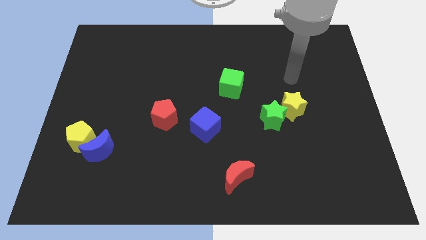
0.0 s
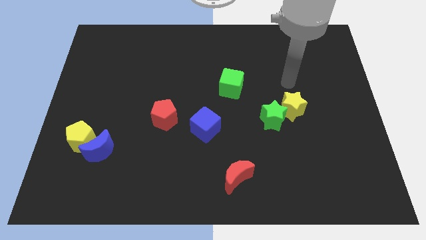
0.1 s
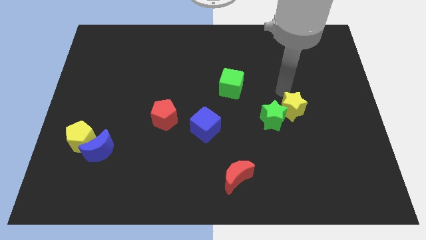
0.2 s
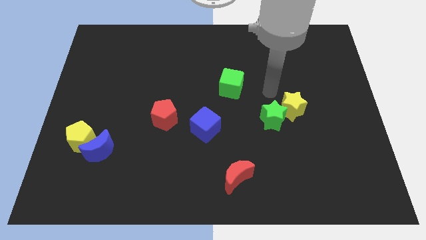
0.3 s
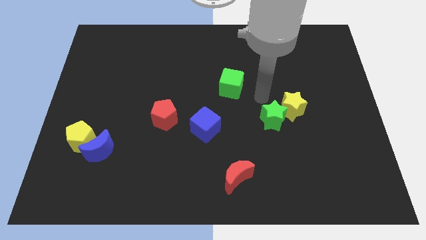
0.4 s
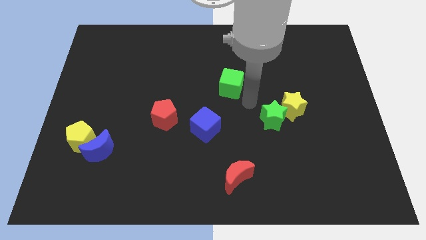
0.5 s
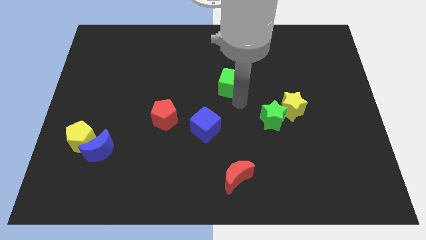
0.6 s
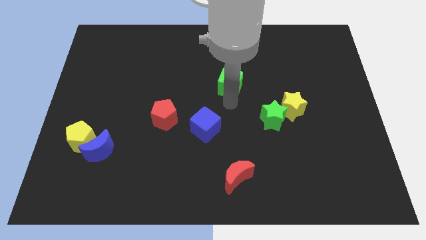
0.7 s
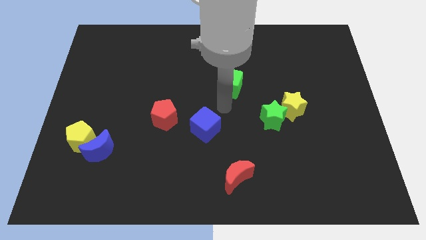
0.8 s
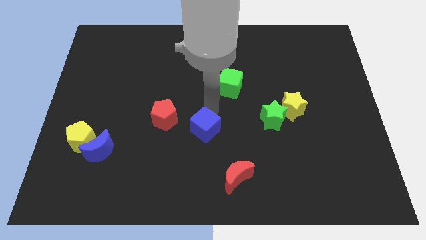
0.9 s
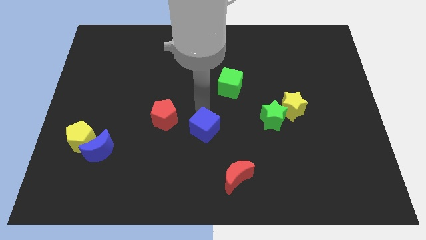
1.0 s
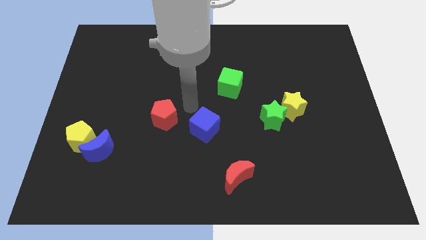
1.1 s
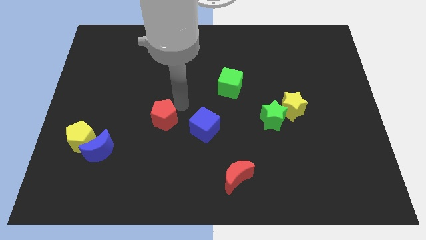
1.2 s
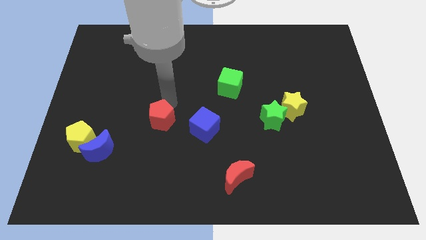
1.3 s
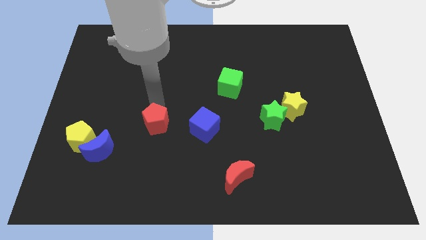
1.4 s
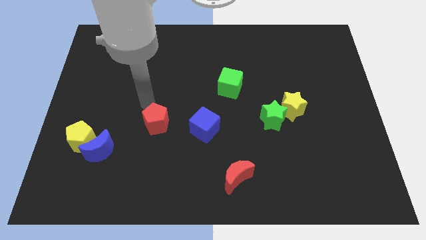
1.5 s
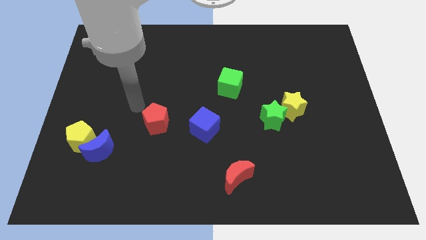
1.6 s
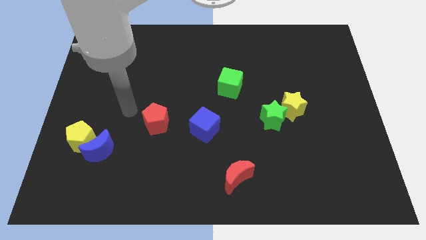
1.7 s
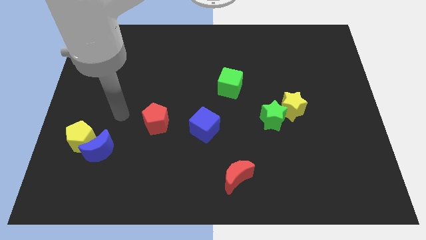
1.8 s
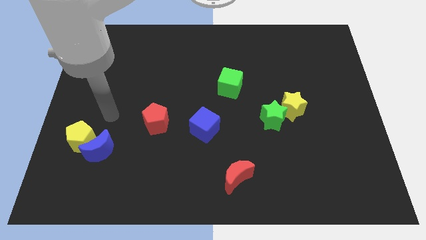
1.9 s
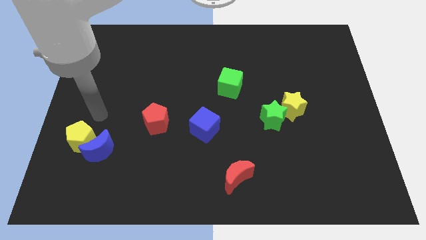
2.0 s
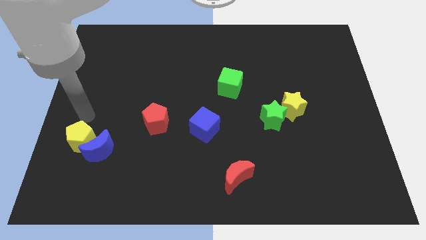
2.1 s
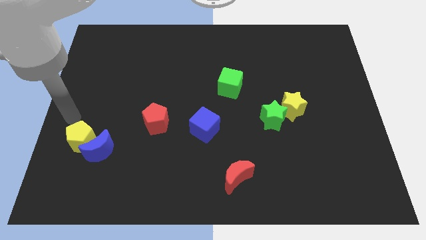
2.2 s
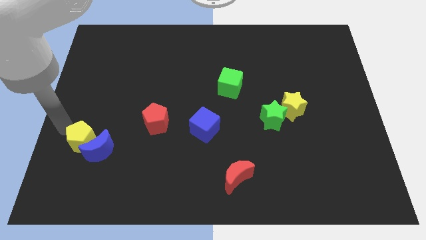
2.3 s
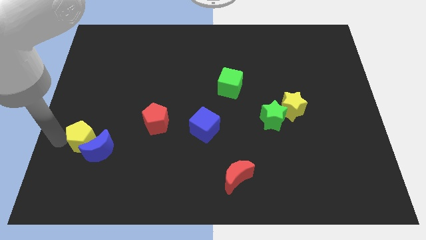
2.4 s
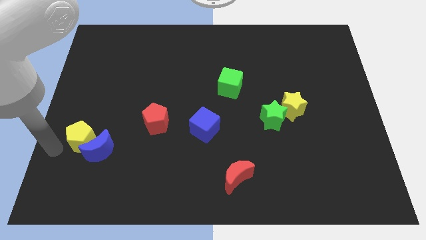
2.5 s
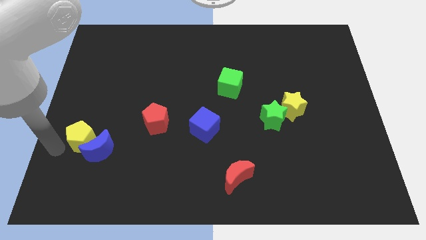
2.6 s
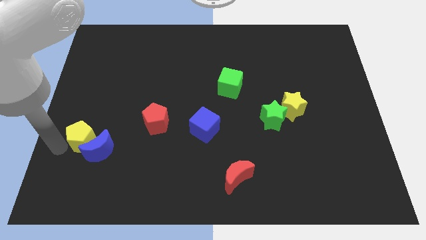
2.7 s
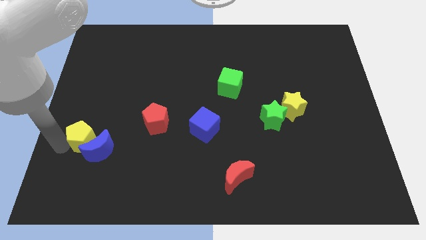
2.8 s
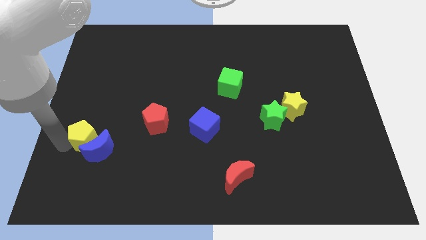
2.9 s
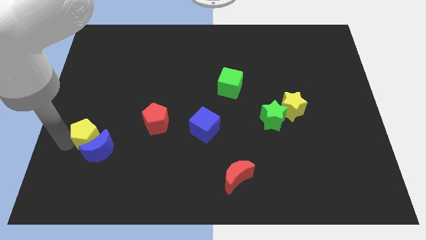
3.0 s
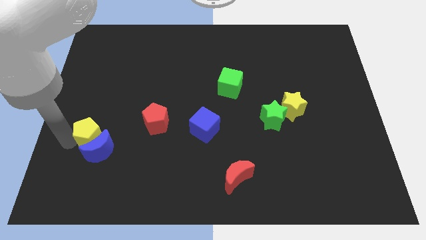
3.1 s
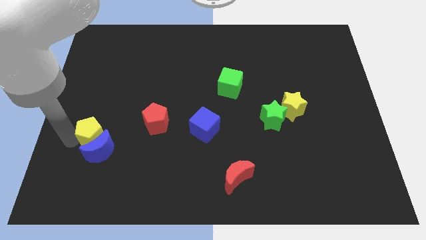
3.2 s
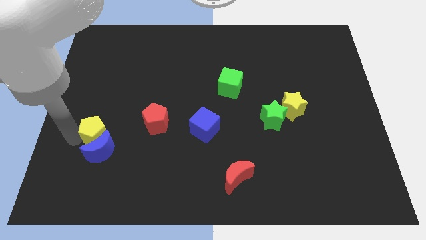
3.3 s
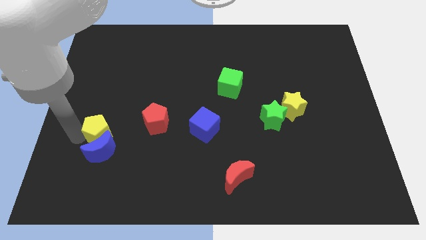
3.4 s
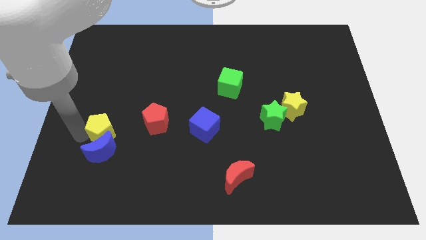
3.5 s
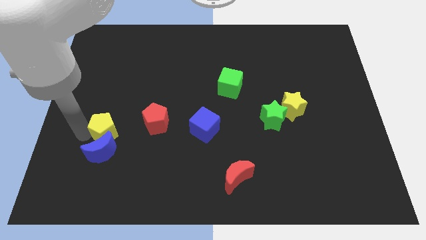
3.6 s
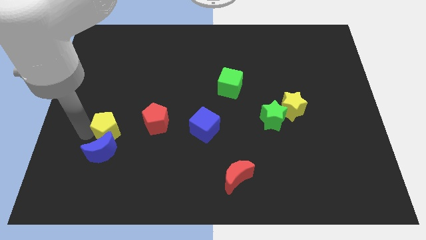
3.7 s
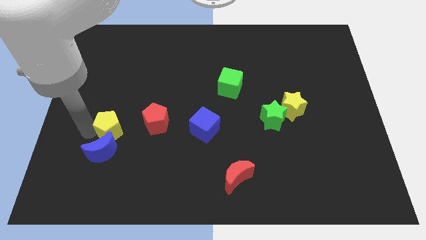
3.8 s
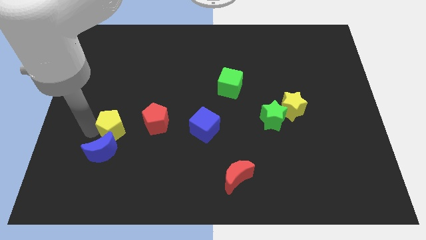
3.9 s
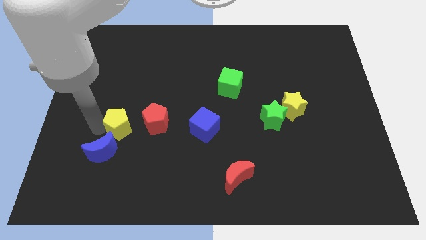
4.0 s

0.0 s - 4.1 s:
slide the yellow pentagon a bit to the right

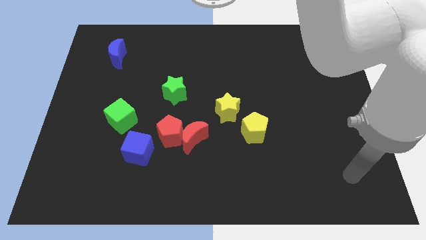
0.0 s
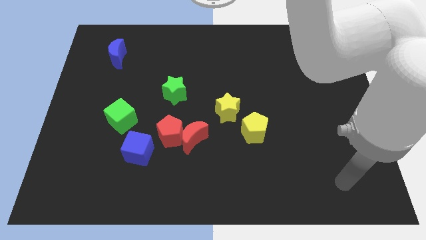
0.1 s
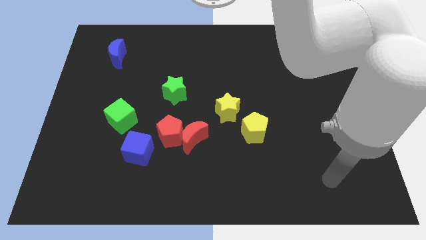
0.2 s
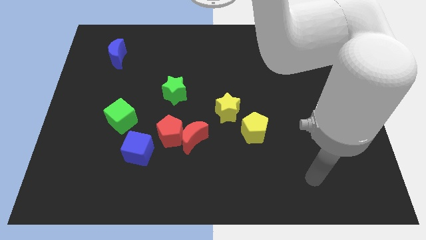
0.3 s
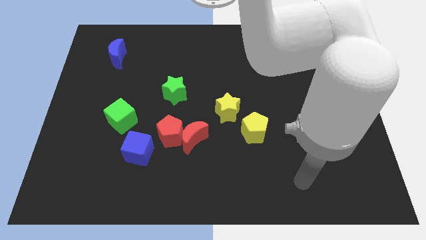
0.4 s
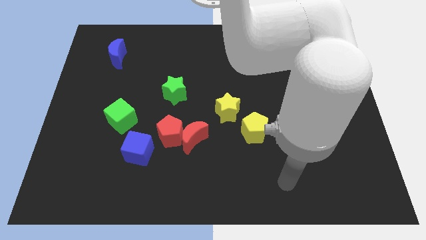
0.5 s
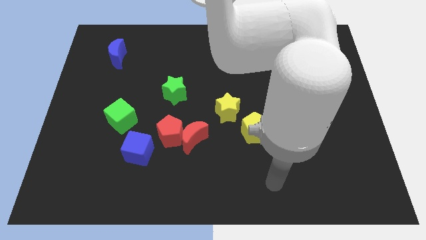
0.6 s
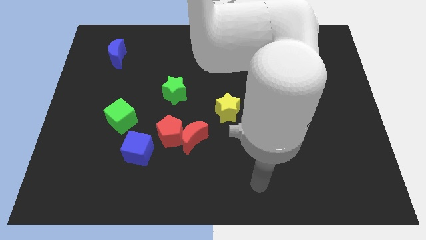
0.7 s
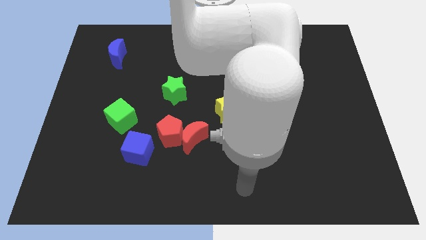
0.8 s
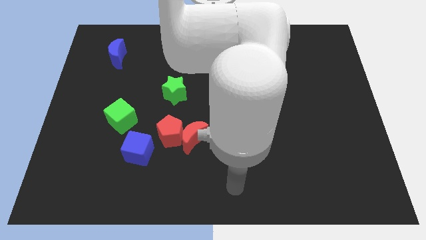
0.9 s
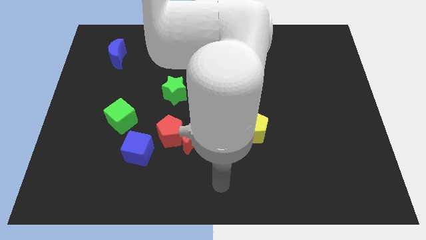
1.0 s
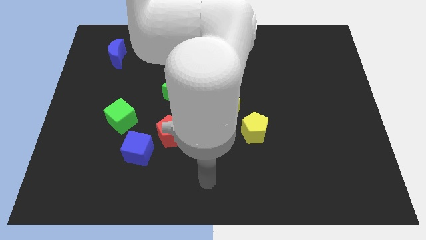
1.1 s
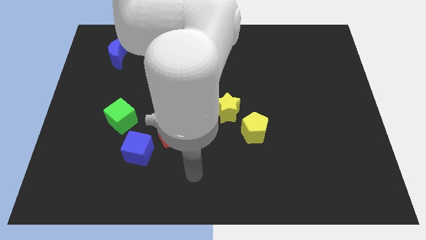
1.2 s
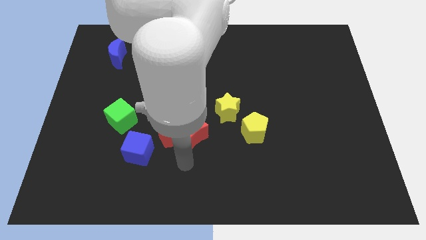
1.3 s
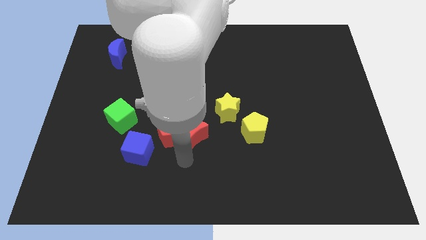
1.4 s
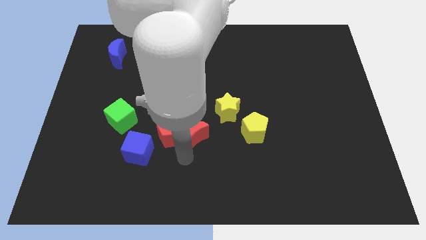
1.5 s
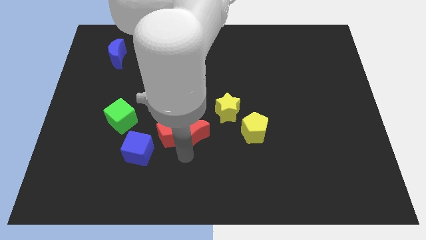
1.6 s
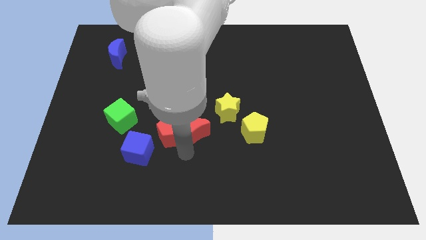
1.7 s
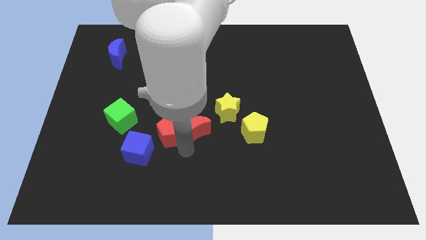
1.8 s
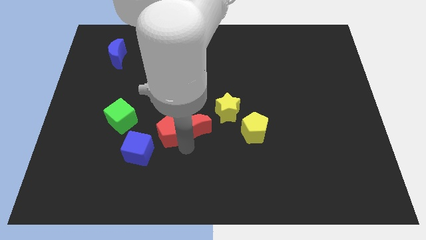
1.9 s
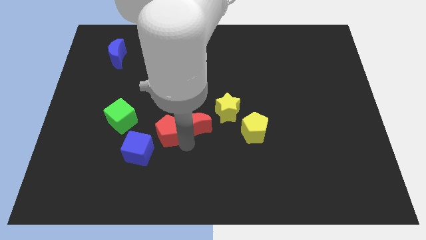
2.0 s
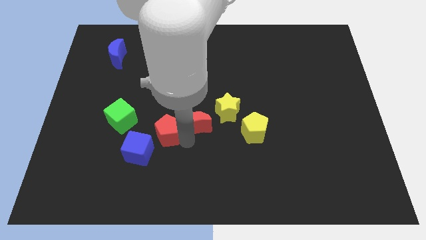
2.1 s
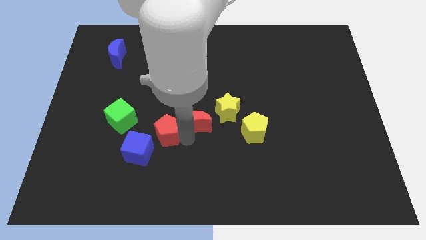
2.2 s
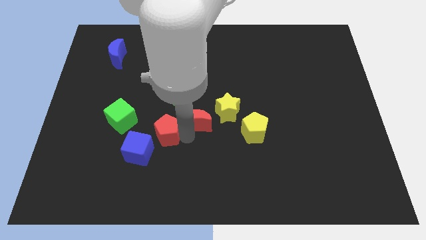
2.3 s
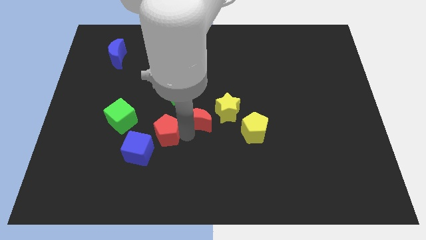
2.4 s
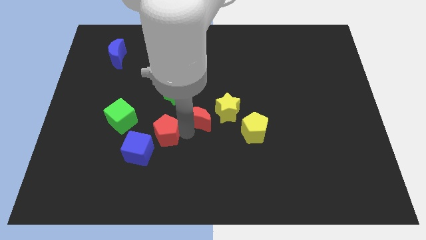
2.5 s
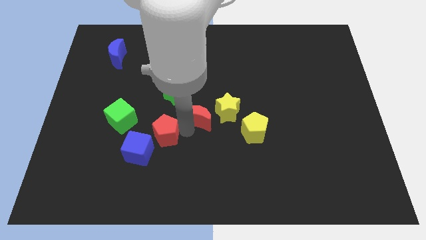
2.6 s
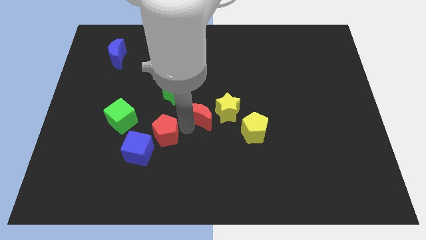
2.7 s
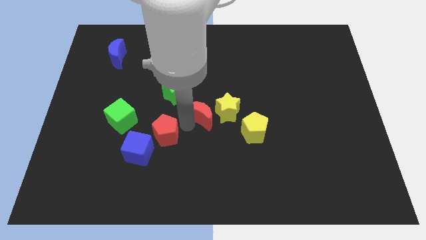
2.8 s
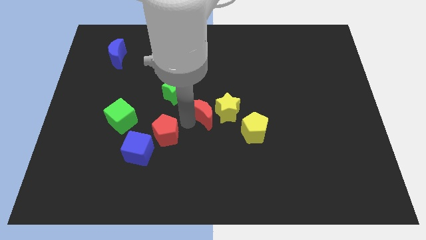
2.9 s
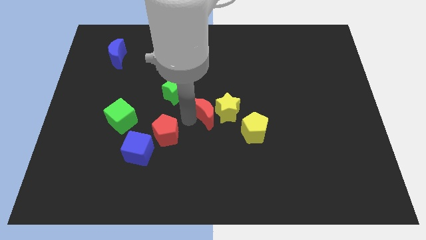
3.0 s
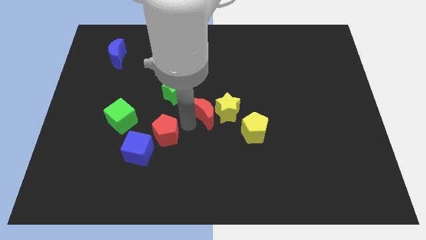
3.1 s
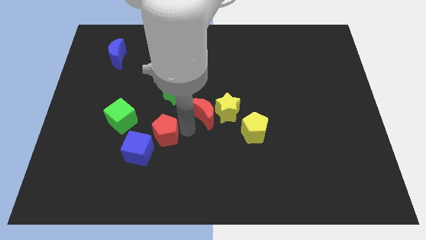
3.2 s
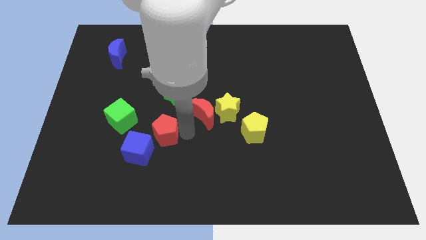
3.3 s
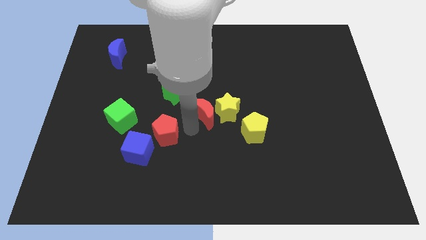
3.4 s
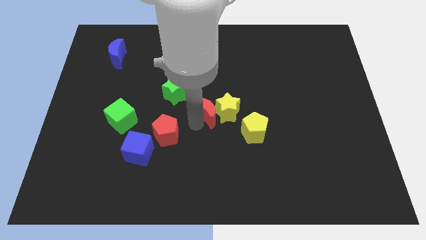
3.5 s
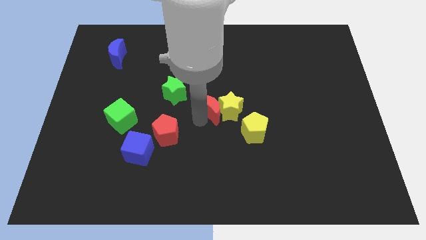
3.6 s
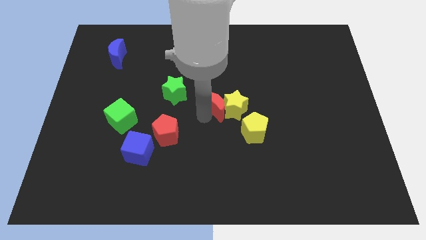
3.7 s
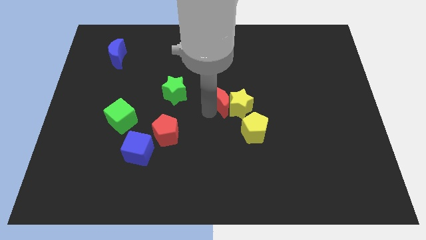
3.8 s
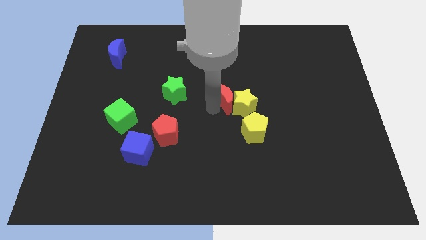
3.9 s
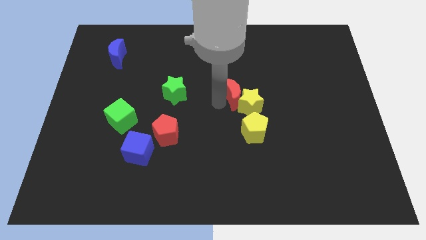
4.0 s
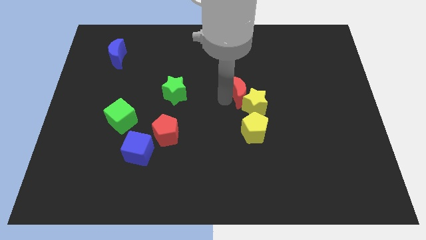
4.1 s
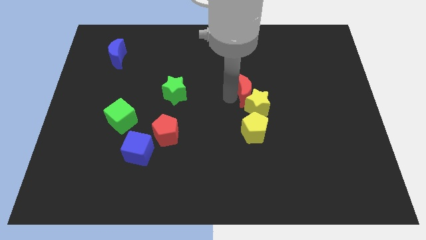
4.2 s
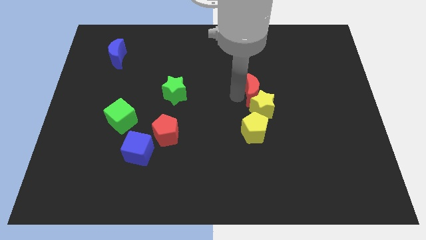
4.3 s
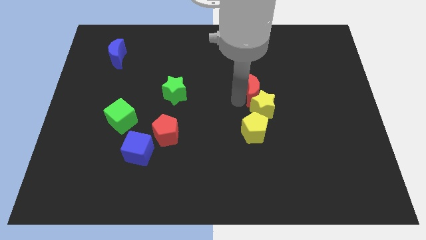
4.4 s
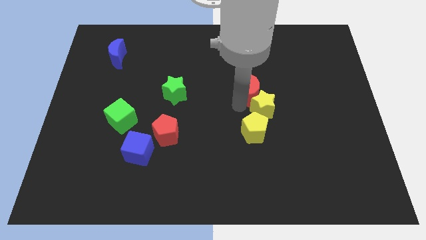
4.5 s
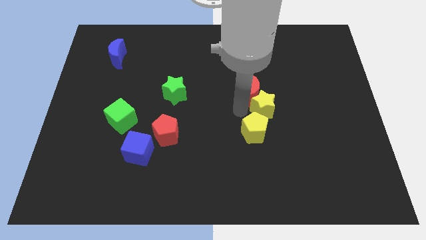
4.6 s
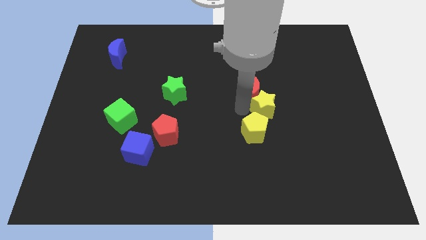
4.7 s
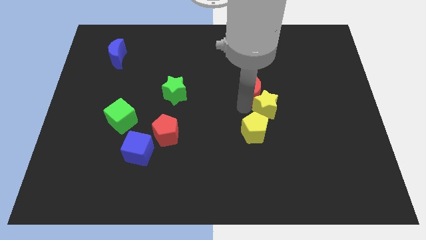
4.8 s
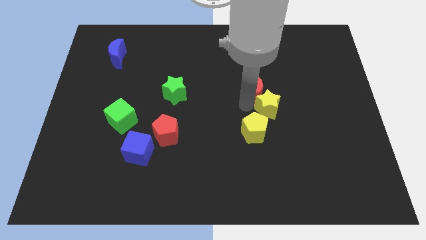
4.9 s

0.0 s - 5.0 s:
slide the red moon up and right diagonally
